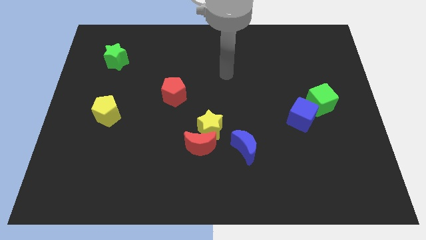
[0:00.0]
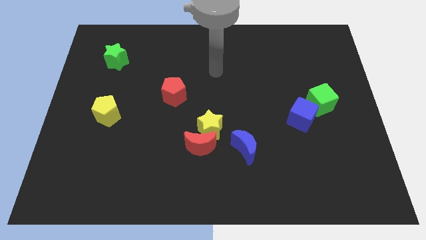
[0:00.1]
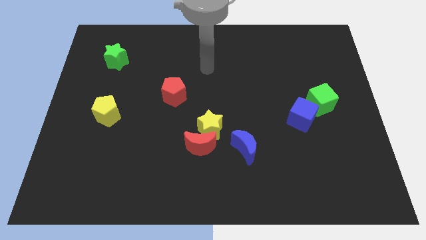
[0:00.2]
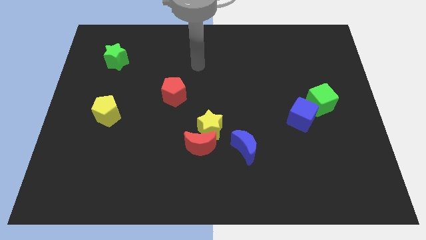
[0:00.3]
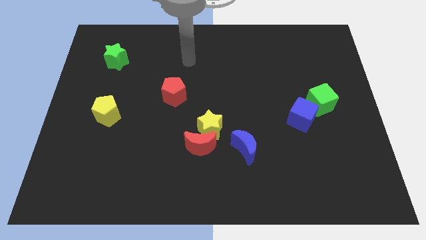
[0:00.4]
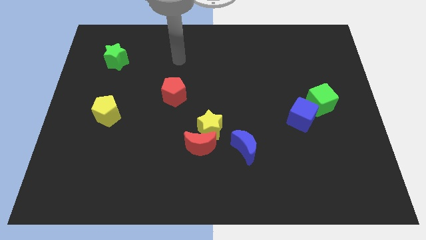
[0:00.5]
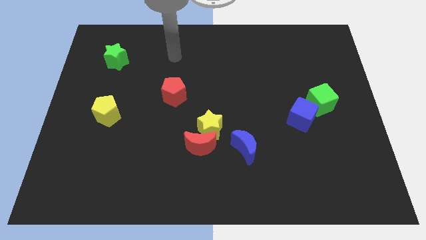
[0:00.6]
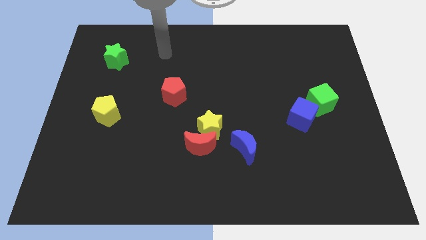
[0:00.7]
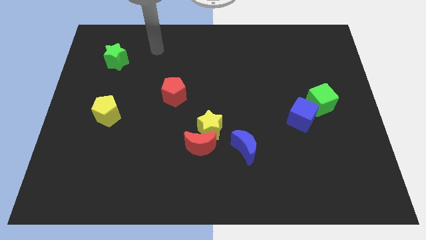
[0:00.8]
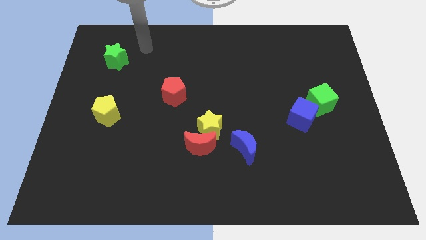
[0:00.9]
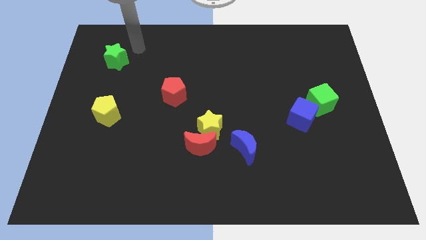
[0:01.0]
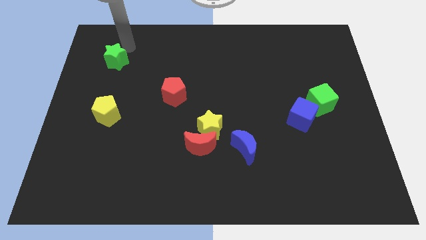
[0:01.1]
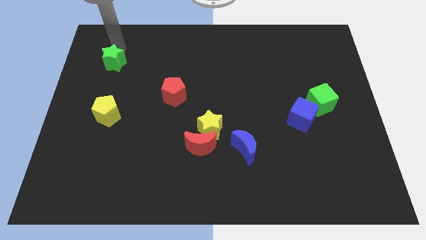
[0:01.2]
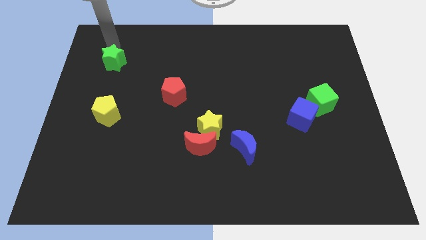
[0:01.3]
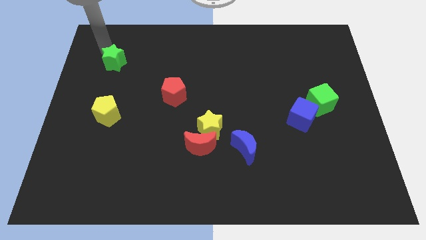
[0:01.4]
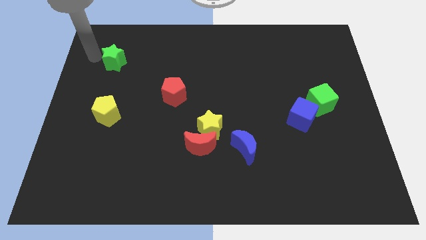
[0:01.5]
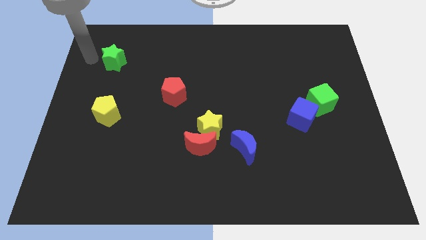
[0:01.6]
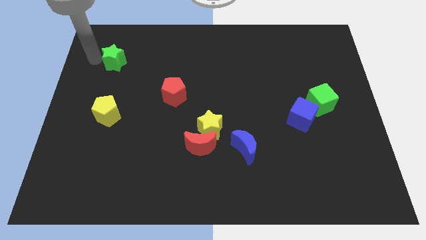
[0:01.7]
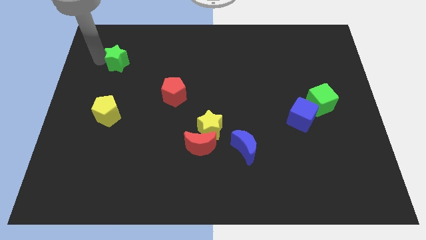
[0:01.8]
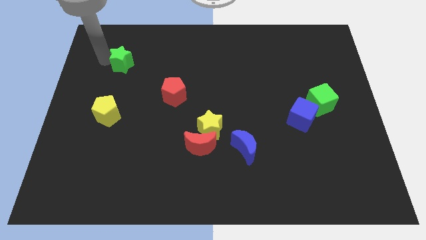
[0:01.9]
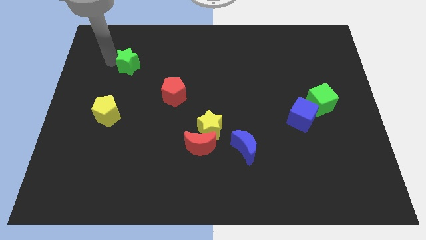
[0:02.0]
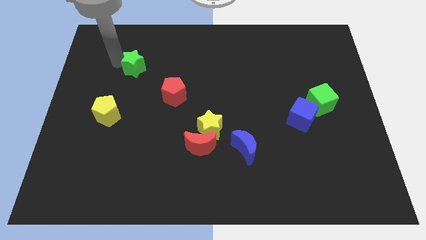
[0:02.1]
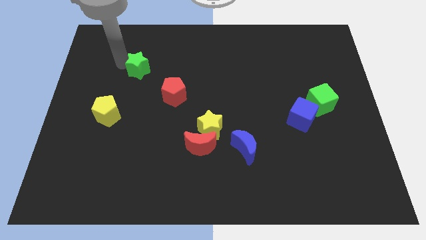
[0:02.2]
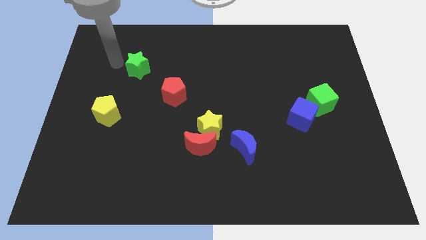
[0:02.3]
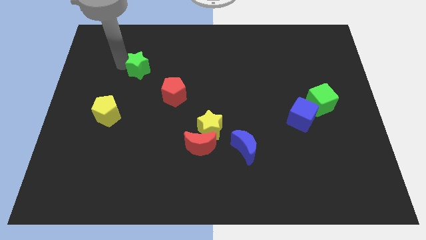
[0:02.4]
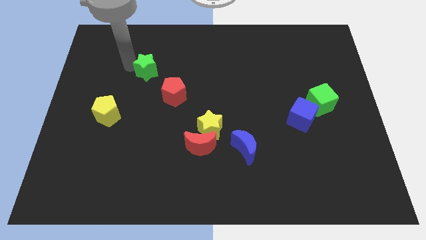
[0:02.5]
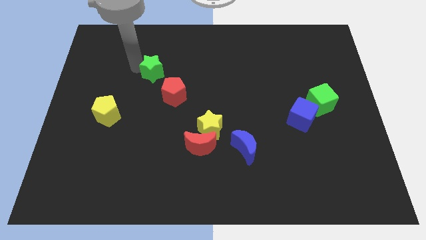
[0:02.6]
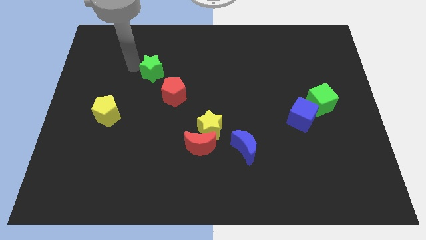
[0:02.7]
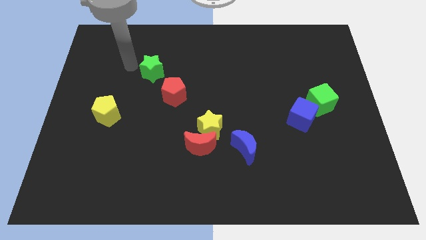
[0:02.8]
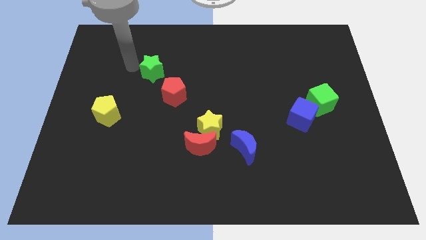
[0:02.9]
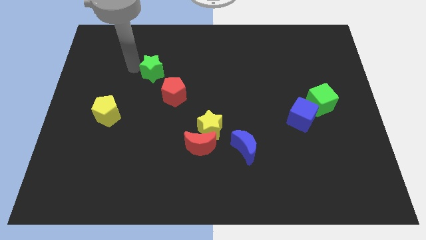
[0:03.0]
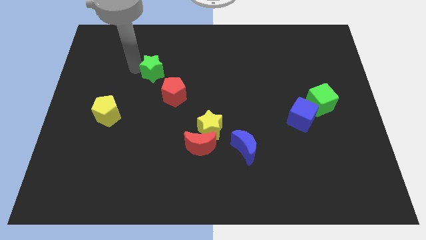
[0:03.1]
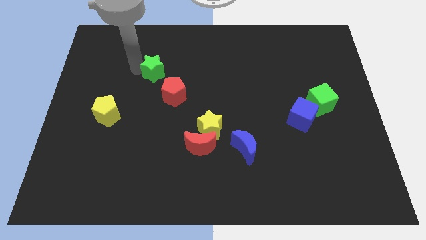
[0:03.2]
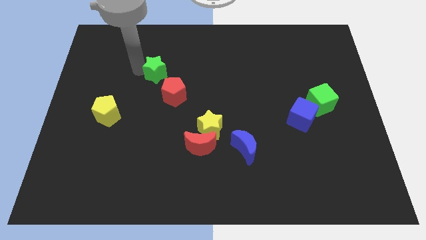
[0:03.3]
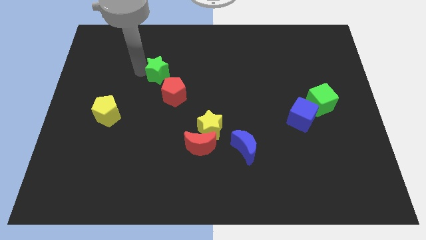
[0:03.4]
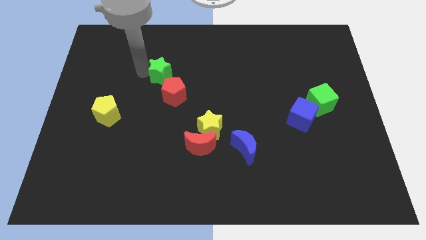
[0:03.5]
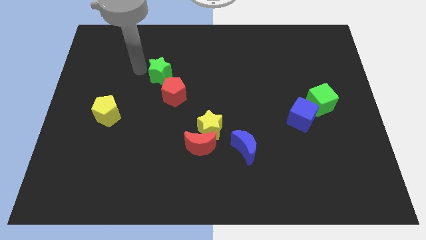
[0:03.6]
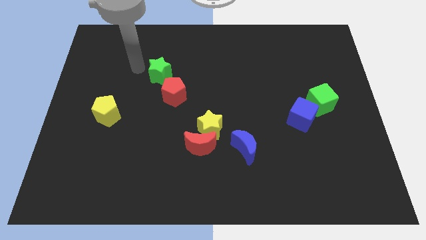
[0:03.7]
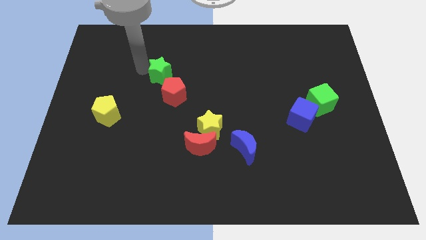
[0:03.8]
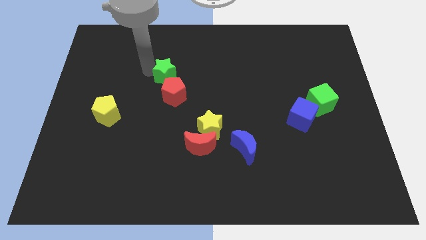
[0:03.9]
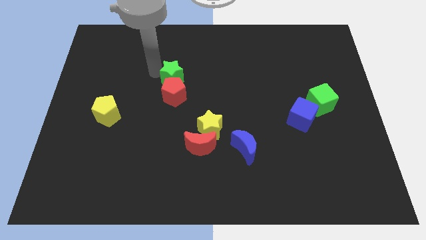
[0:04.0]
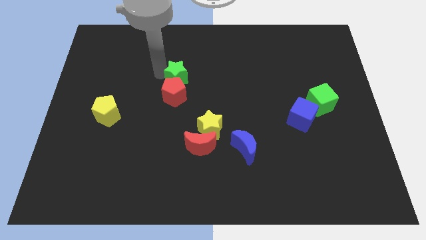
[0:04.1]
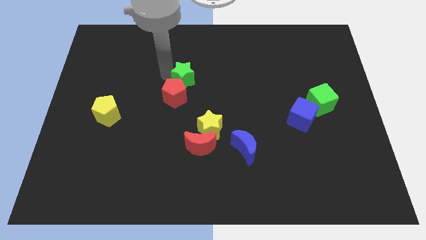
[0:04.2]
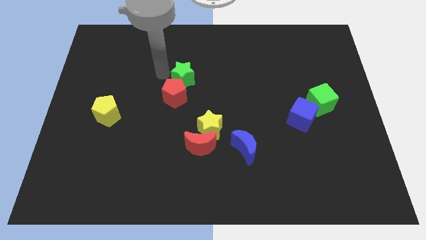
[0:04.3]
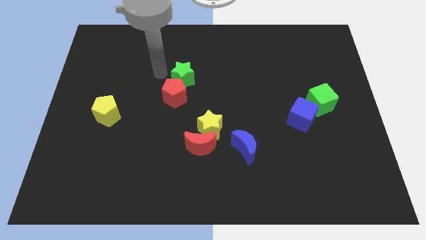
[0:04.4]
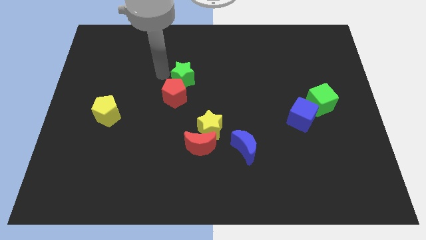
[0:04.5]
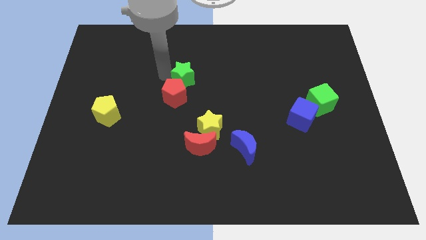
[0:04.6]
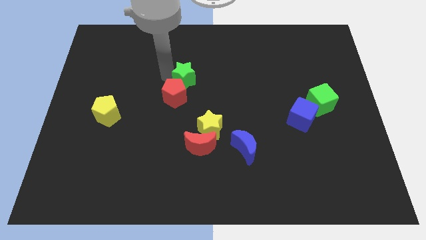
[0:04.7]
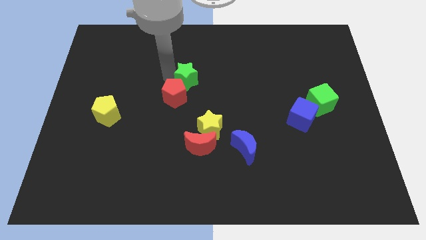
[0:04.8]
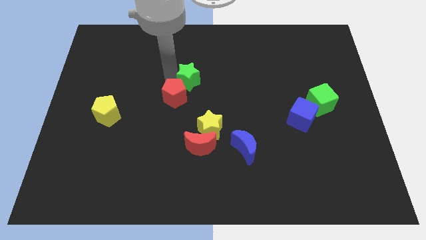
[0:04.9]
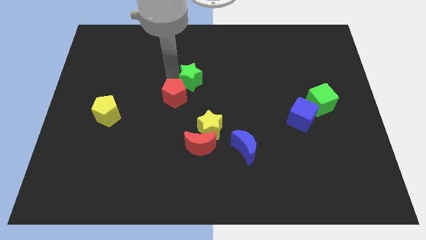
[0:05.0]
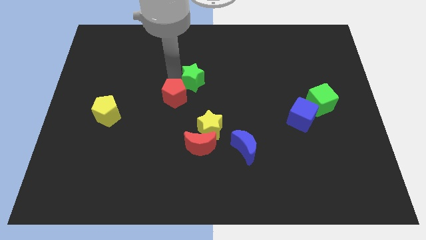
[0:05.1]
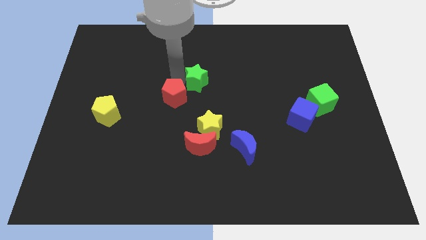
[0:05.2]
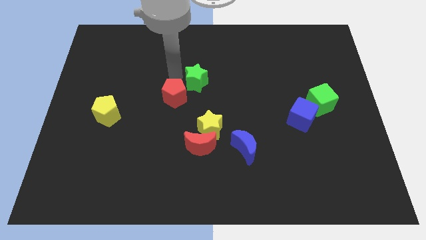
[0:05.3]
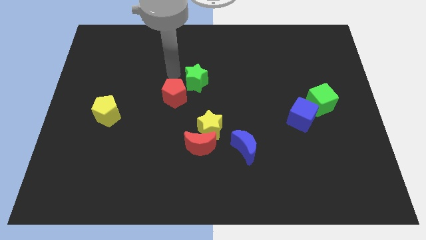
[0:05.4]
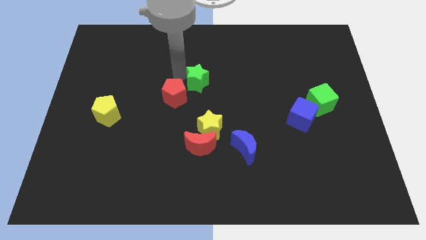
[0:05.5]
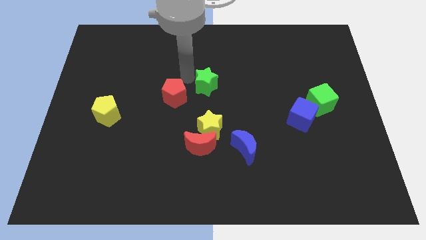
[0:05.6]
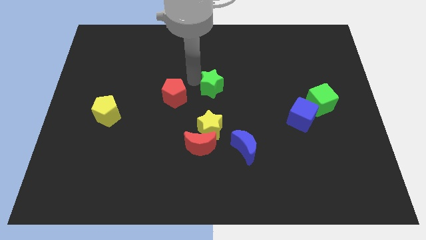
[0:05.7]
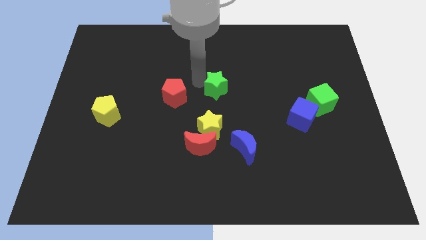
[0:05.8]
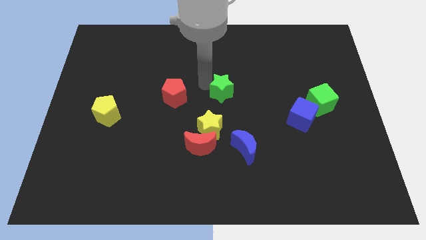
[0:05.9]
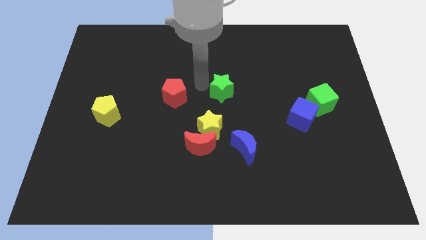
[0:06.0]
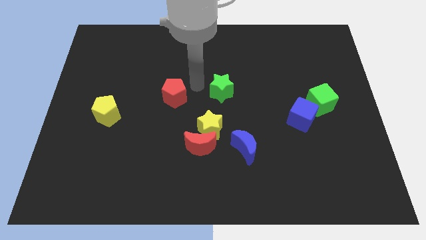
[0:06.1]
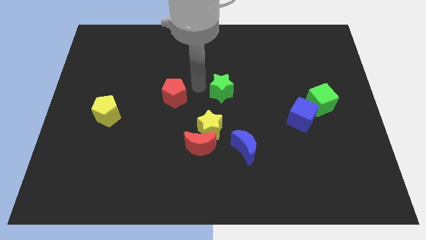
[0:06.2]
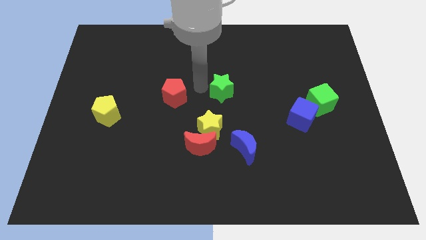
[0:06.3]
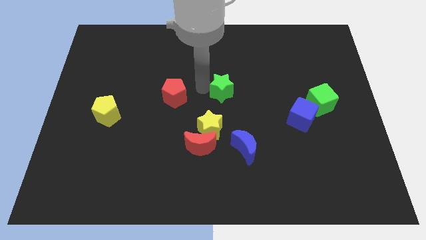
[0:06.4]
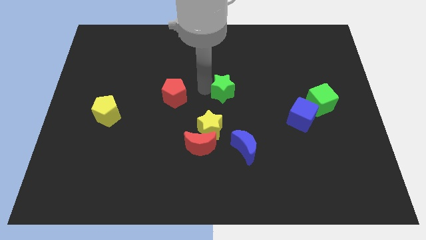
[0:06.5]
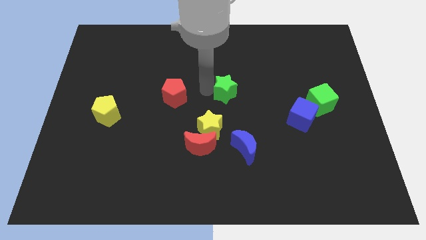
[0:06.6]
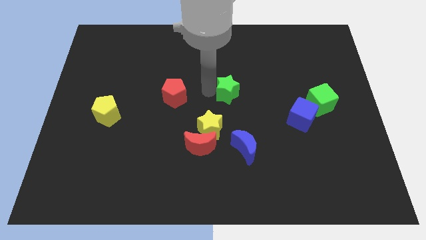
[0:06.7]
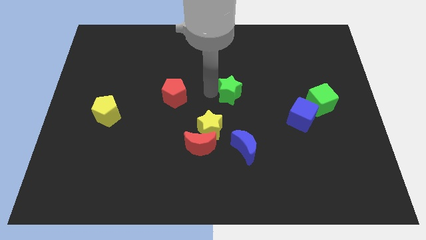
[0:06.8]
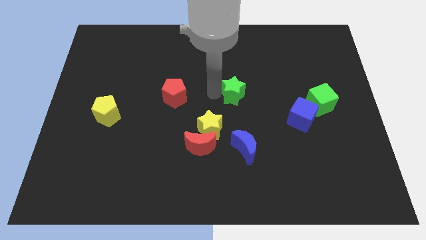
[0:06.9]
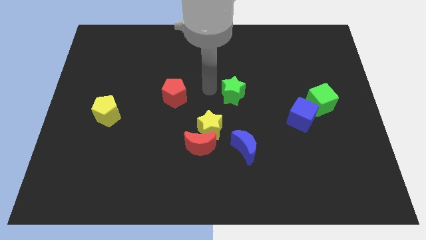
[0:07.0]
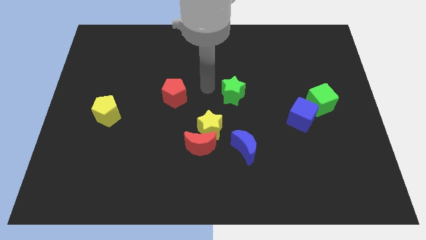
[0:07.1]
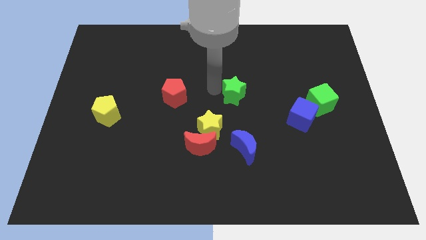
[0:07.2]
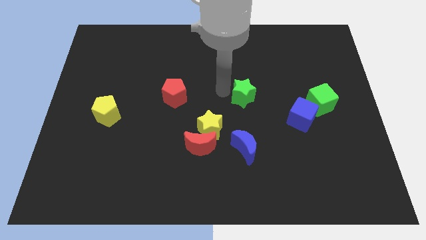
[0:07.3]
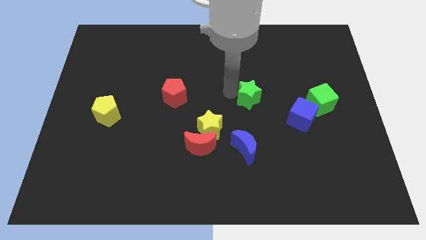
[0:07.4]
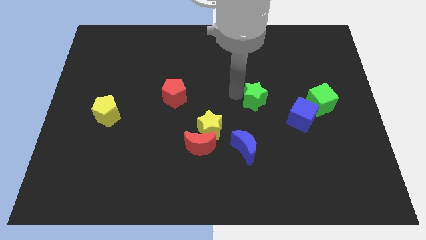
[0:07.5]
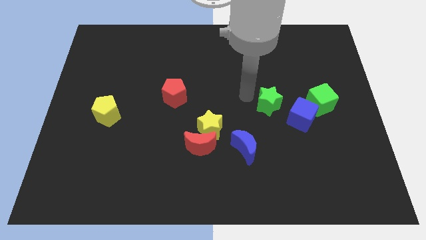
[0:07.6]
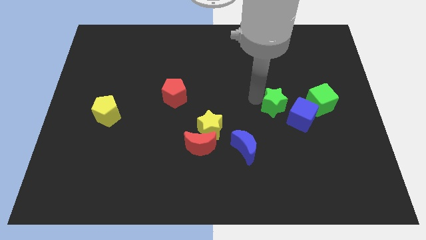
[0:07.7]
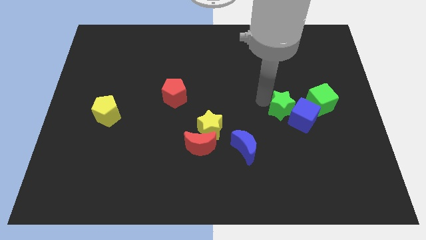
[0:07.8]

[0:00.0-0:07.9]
push the green star to the blue cube
